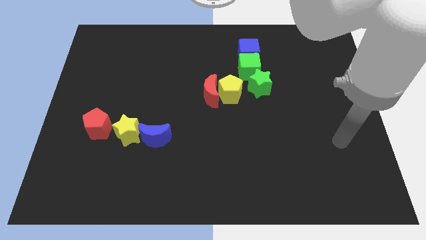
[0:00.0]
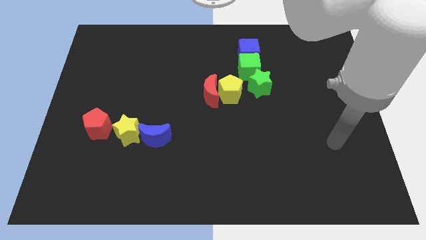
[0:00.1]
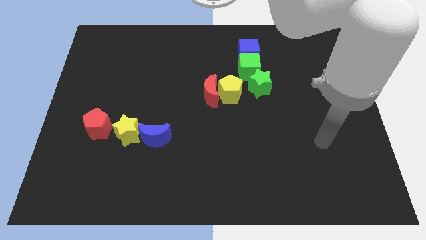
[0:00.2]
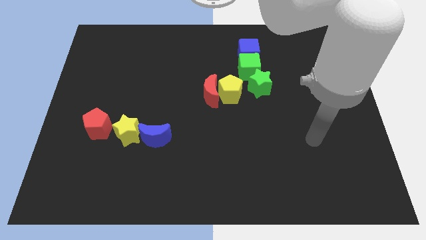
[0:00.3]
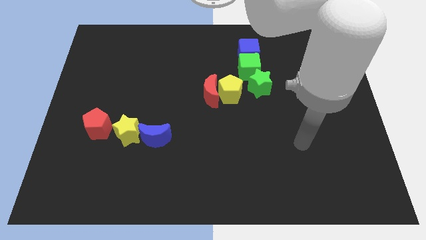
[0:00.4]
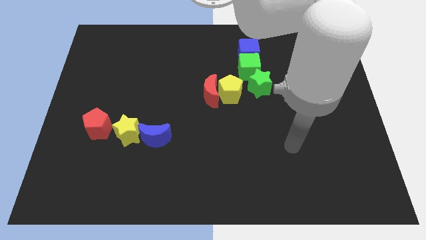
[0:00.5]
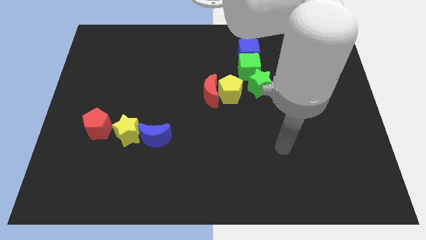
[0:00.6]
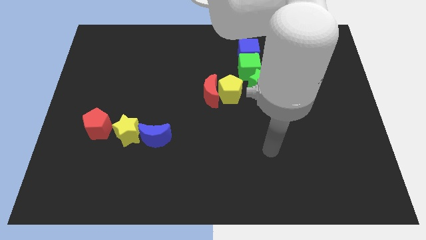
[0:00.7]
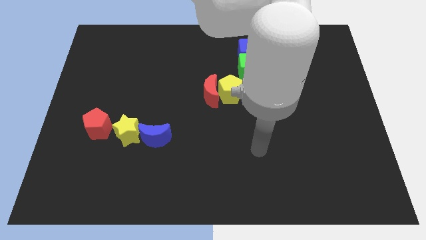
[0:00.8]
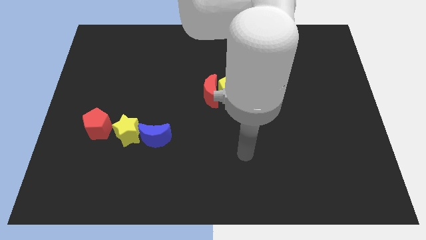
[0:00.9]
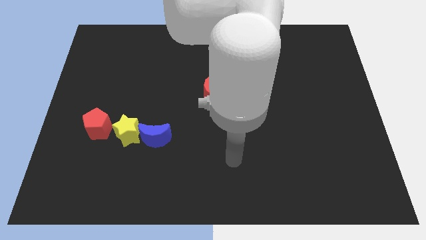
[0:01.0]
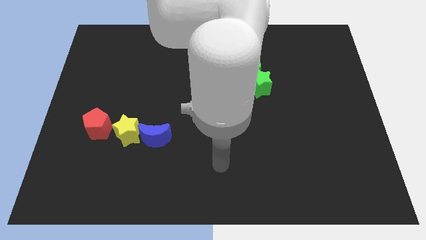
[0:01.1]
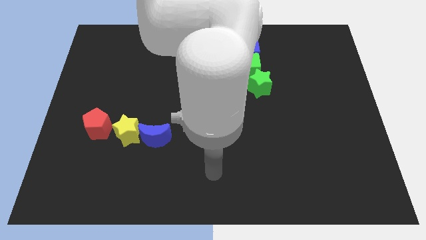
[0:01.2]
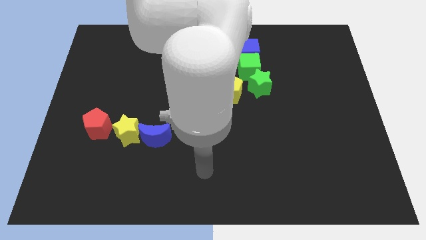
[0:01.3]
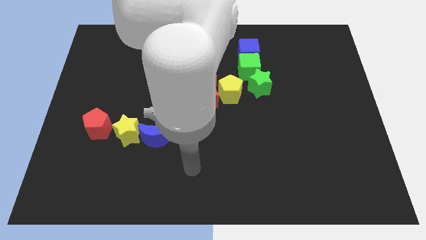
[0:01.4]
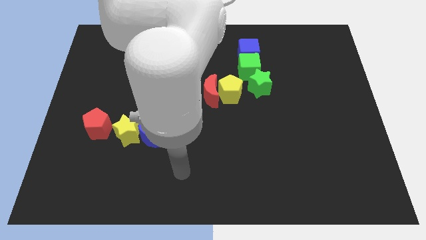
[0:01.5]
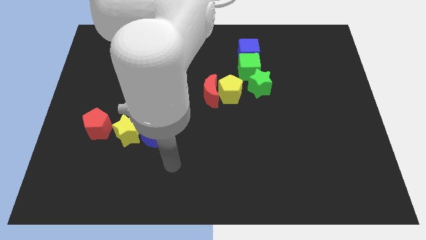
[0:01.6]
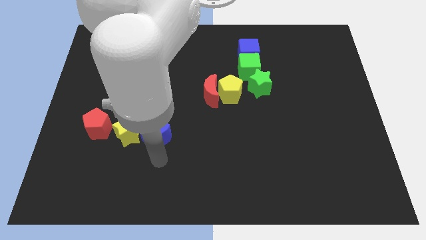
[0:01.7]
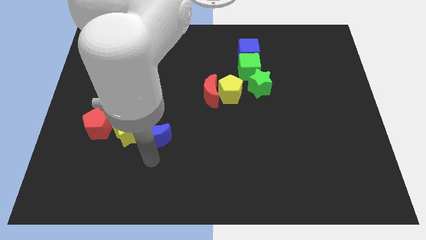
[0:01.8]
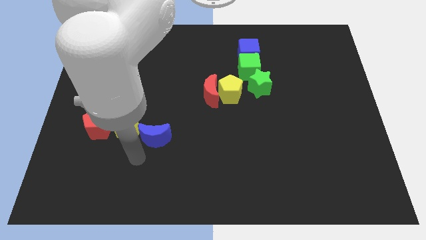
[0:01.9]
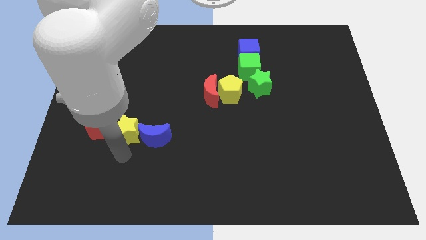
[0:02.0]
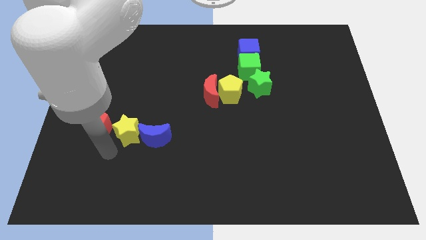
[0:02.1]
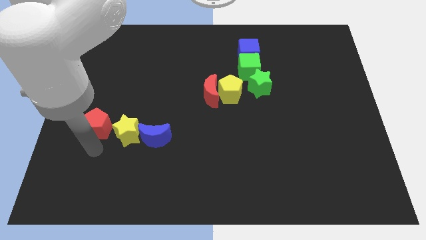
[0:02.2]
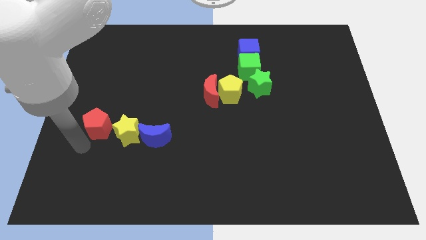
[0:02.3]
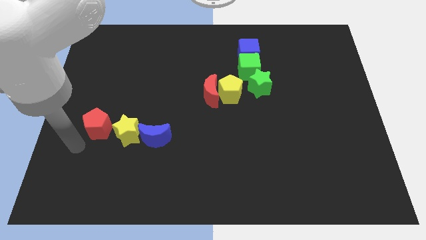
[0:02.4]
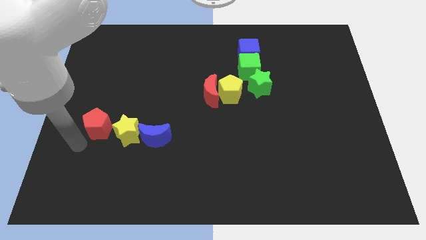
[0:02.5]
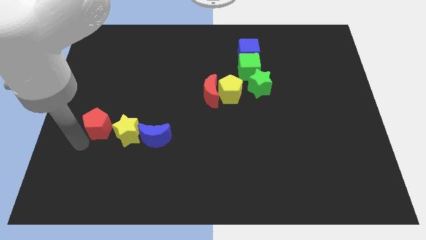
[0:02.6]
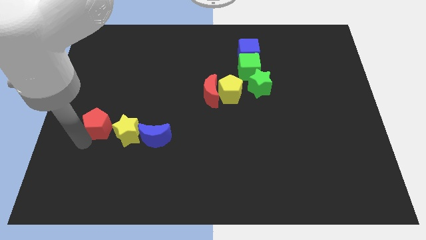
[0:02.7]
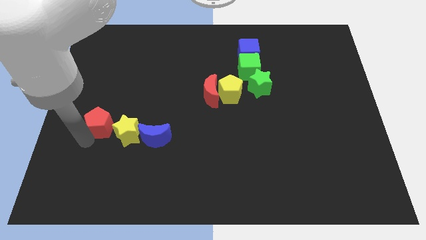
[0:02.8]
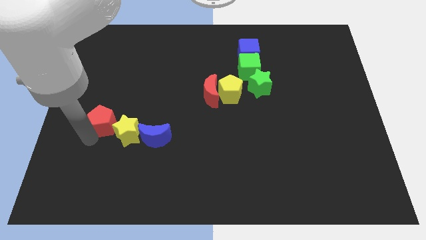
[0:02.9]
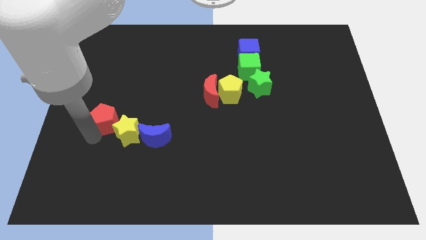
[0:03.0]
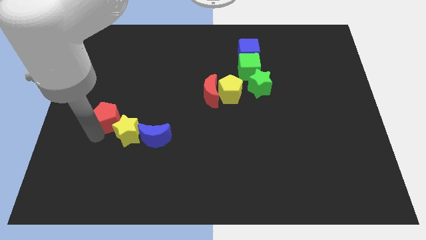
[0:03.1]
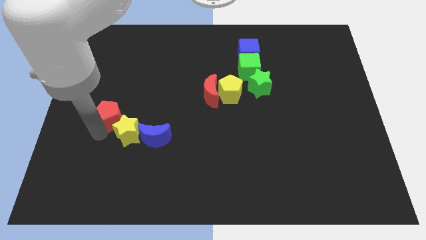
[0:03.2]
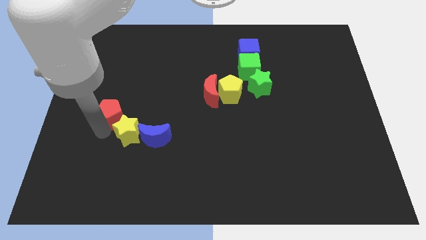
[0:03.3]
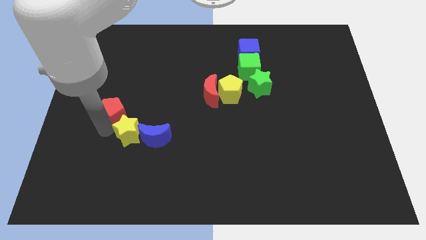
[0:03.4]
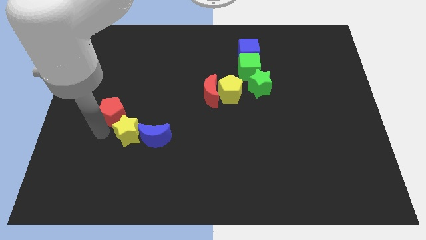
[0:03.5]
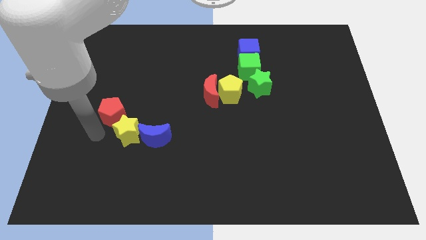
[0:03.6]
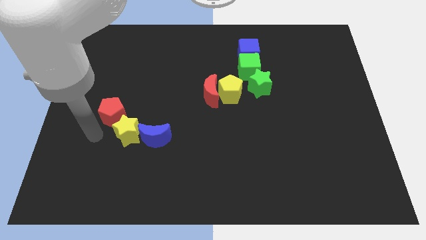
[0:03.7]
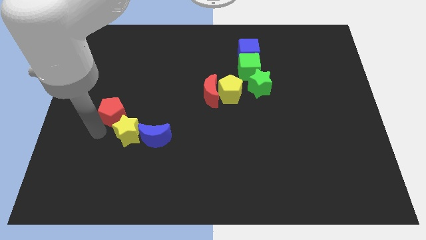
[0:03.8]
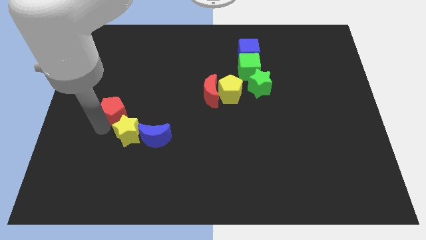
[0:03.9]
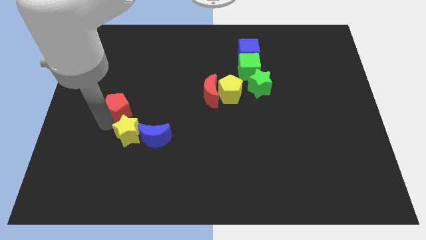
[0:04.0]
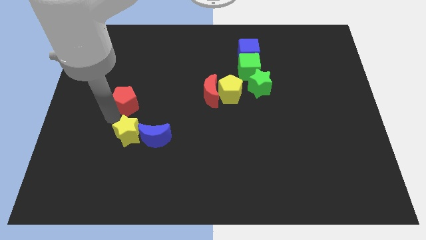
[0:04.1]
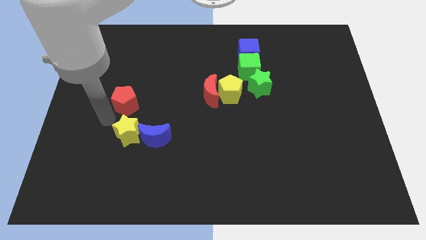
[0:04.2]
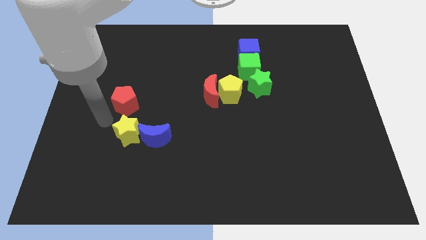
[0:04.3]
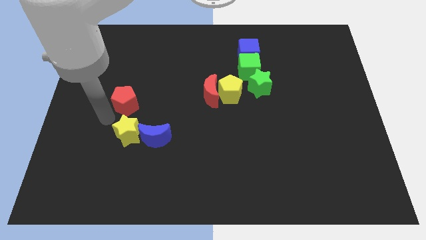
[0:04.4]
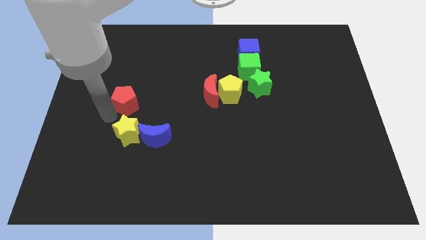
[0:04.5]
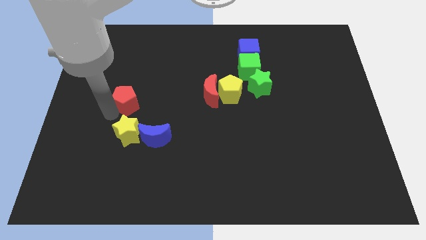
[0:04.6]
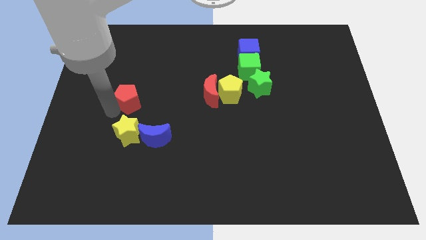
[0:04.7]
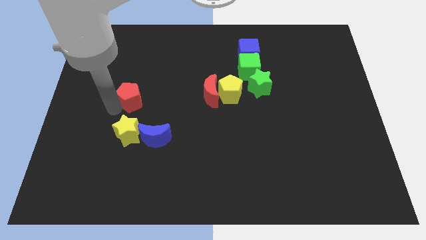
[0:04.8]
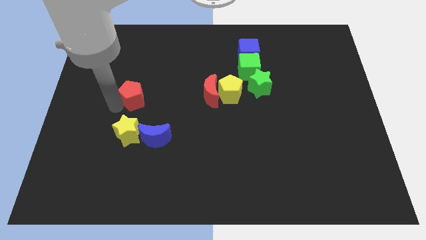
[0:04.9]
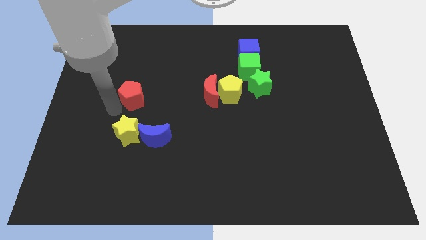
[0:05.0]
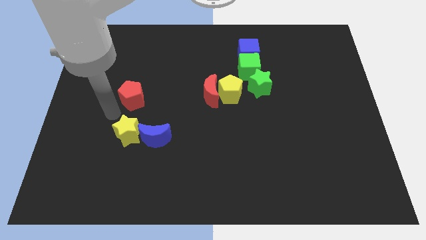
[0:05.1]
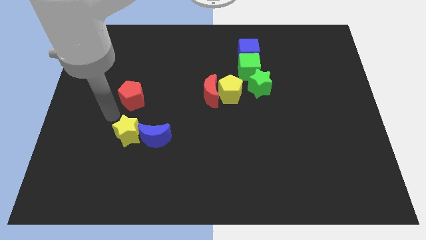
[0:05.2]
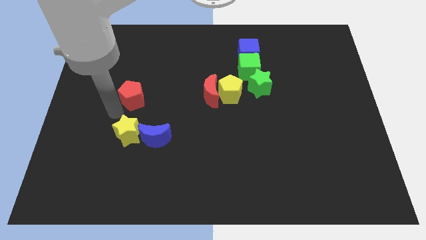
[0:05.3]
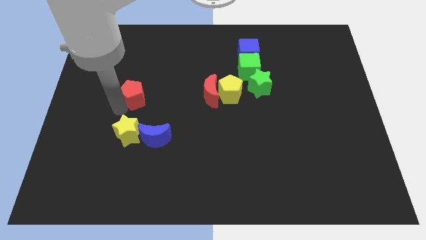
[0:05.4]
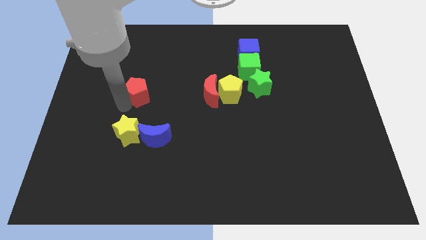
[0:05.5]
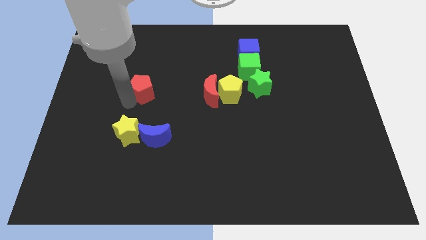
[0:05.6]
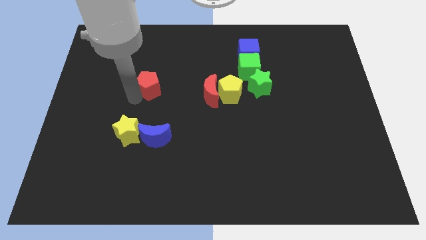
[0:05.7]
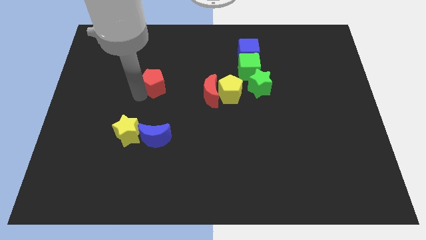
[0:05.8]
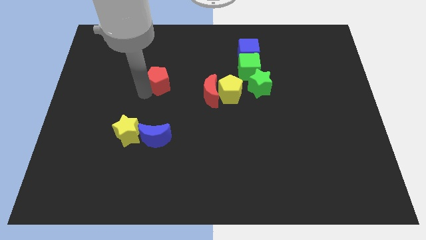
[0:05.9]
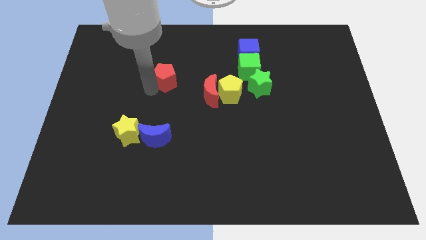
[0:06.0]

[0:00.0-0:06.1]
push the red pentagon up and right

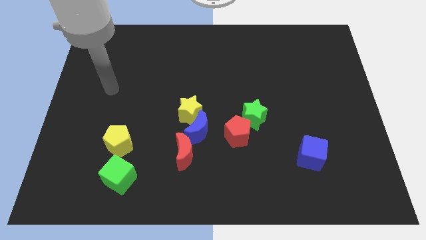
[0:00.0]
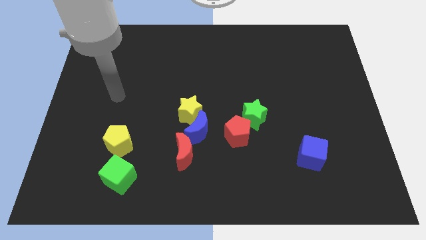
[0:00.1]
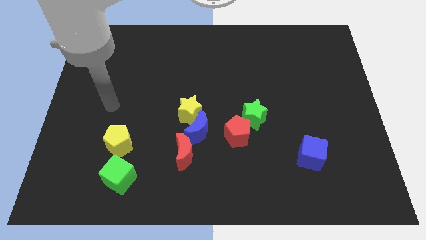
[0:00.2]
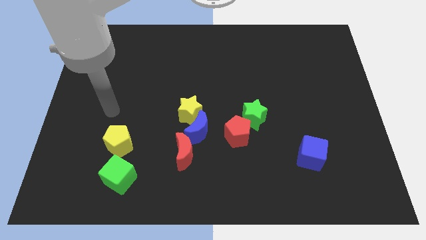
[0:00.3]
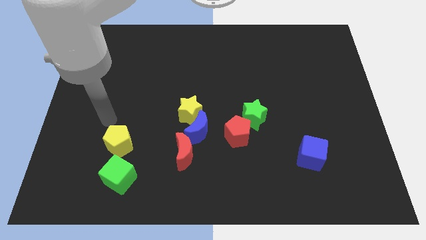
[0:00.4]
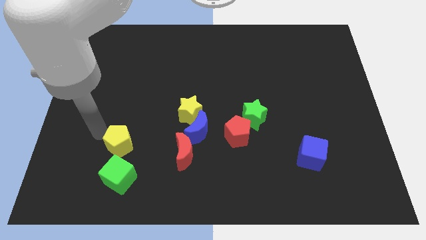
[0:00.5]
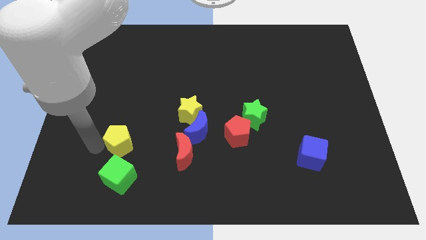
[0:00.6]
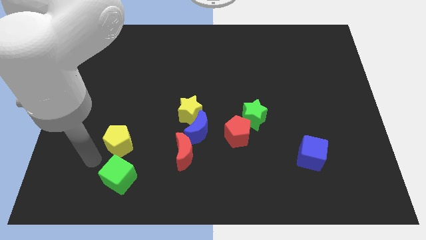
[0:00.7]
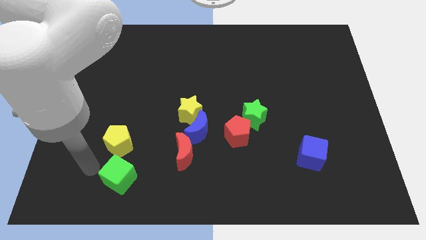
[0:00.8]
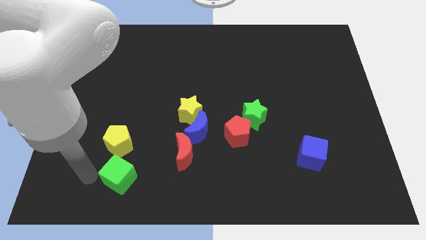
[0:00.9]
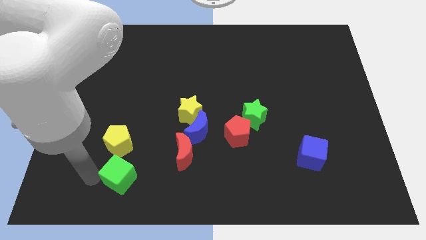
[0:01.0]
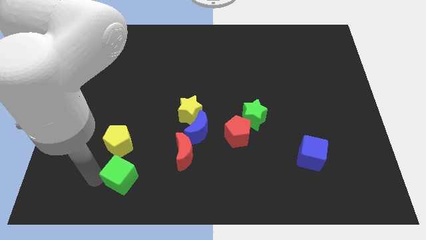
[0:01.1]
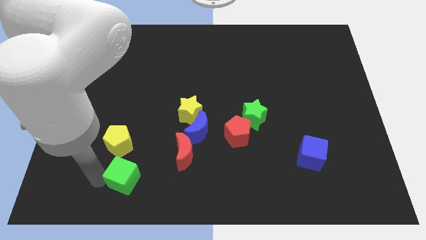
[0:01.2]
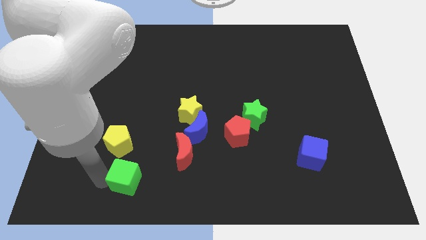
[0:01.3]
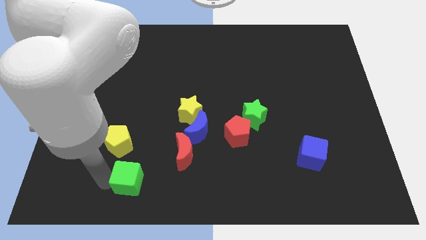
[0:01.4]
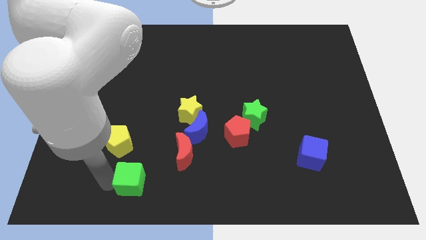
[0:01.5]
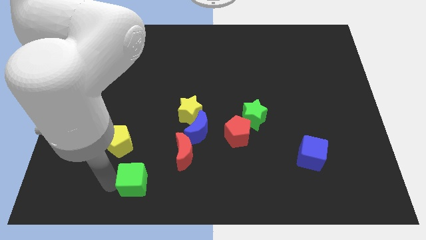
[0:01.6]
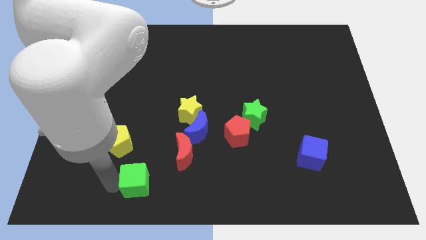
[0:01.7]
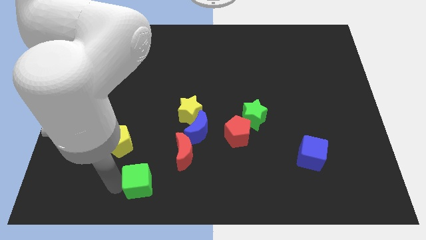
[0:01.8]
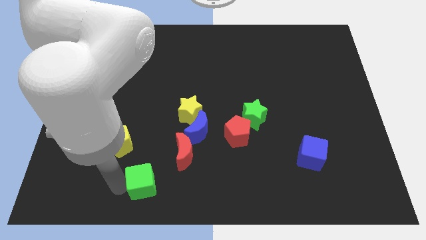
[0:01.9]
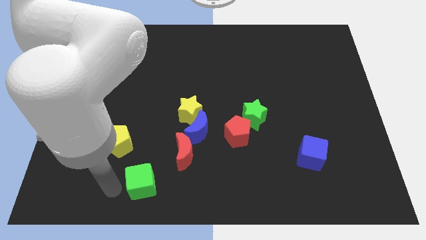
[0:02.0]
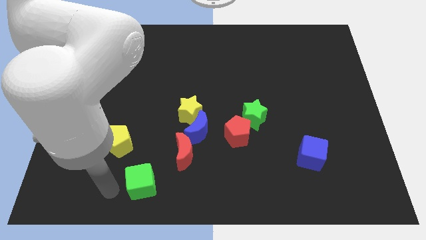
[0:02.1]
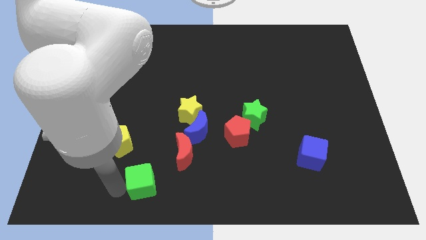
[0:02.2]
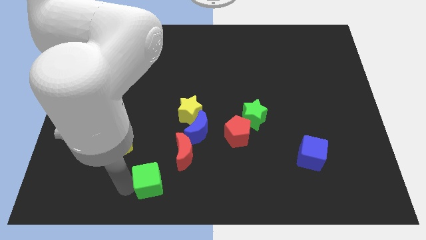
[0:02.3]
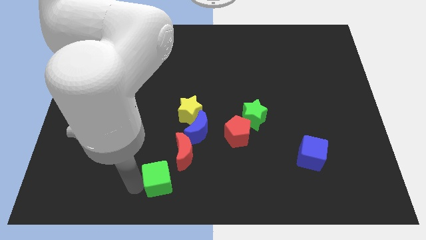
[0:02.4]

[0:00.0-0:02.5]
slightly slide the green cube to the right

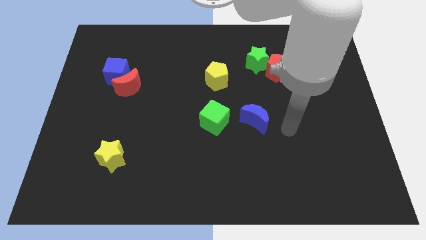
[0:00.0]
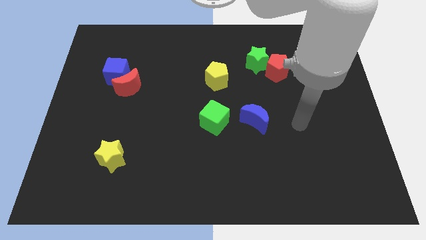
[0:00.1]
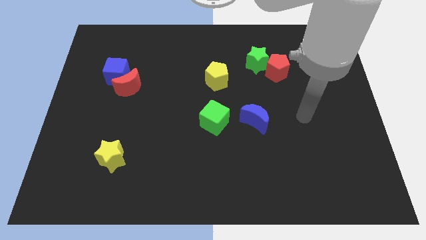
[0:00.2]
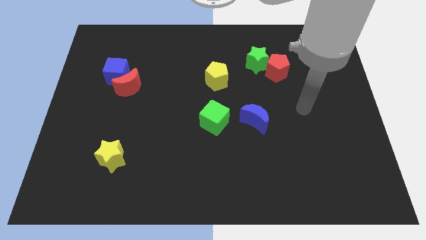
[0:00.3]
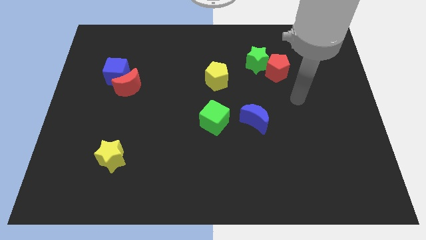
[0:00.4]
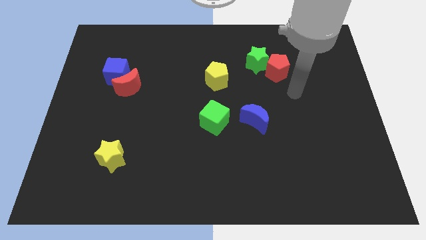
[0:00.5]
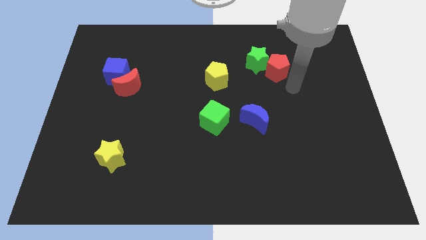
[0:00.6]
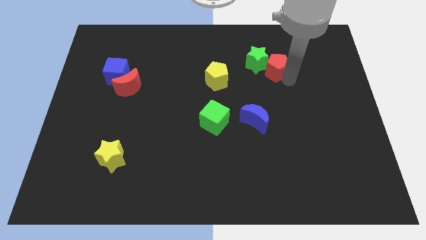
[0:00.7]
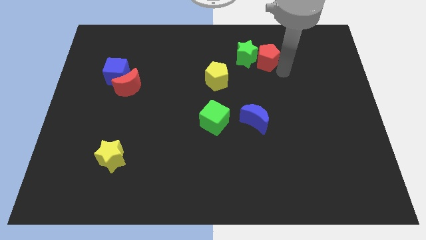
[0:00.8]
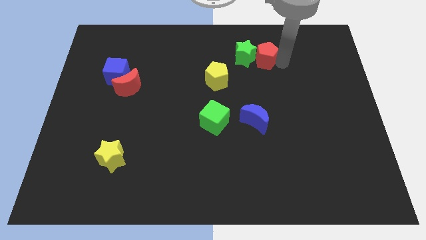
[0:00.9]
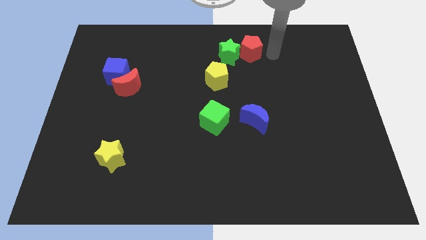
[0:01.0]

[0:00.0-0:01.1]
slightly slide the green star left
